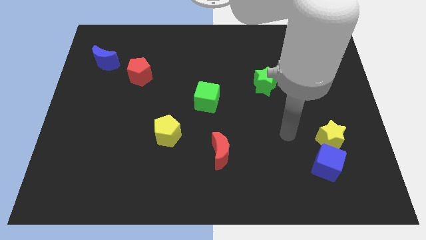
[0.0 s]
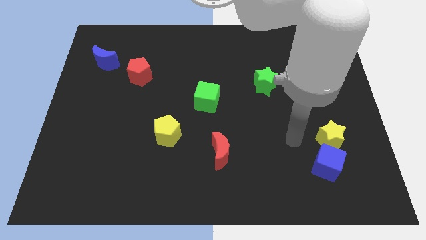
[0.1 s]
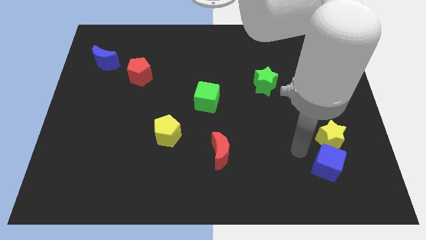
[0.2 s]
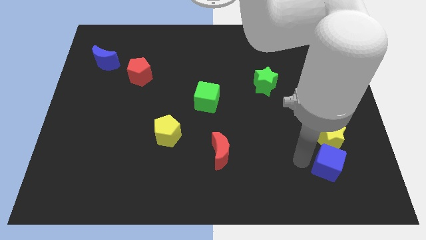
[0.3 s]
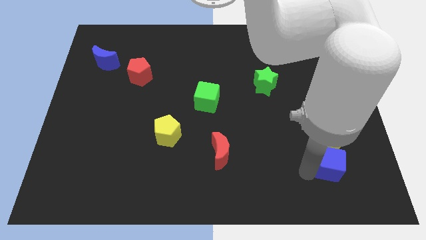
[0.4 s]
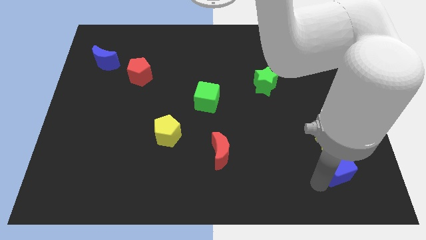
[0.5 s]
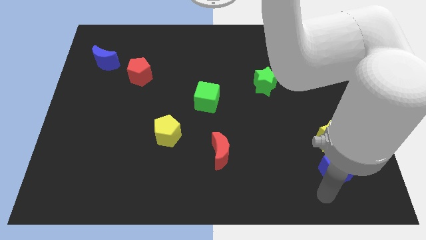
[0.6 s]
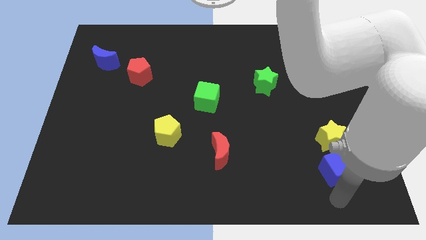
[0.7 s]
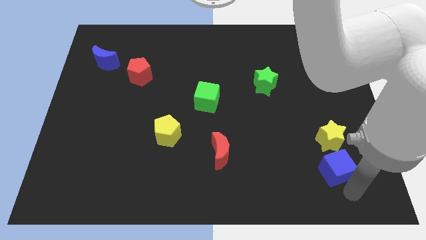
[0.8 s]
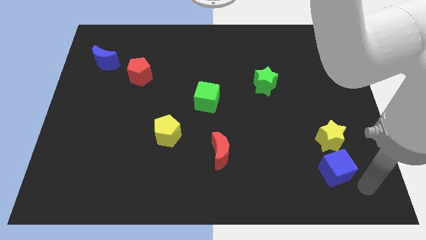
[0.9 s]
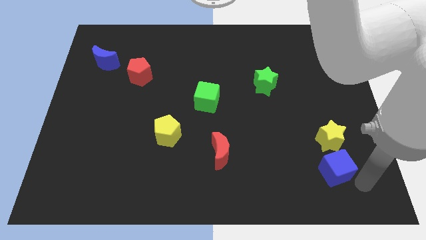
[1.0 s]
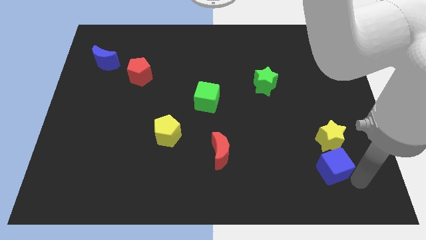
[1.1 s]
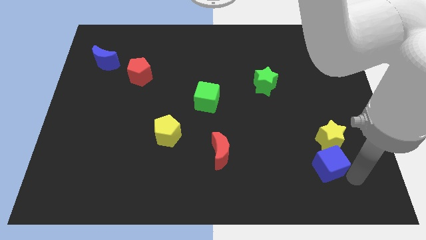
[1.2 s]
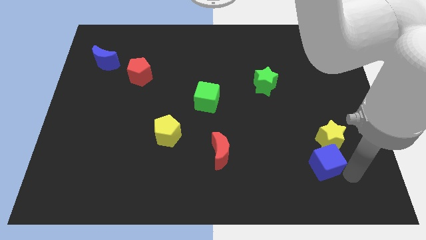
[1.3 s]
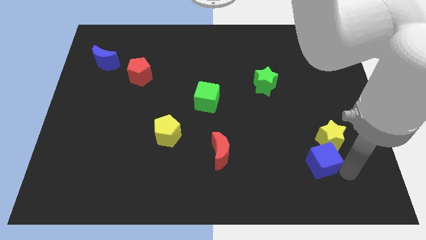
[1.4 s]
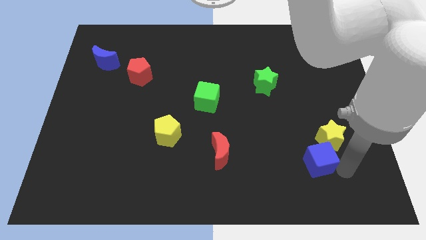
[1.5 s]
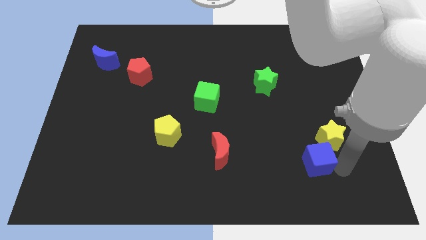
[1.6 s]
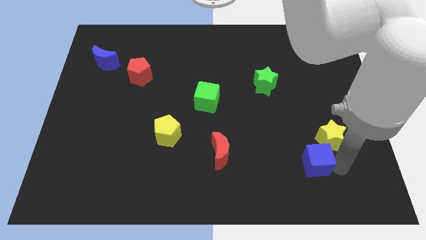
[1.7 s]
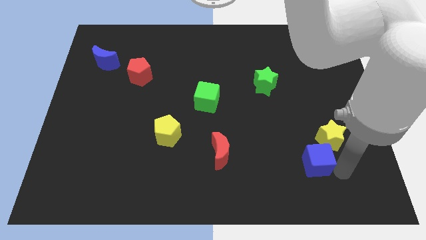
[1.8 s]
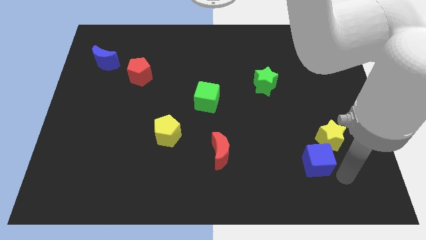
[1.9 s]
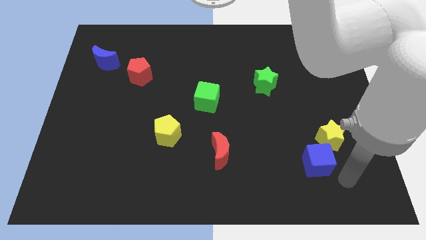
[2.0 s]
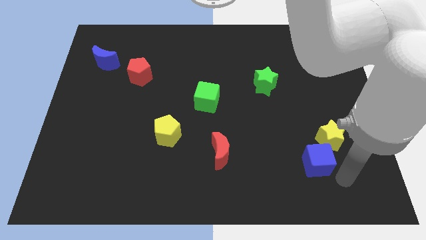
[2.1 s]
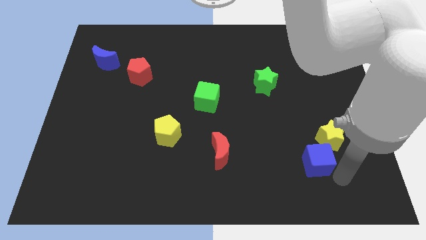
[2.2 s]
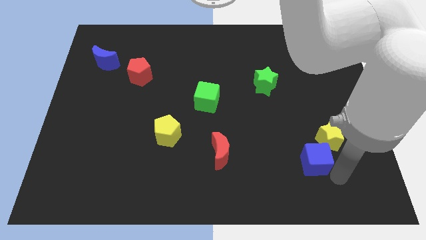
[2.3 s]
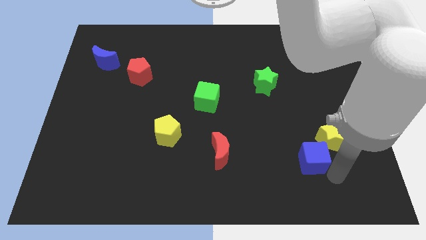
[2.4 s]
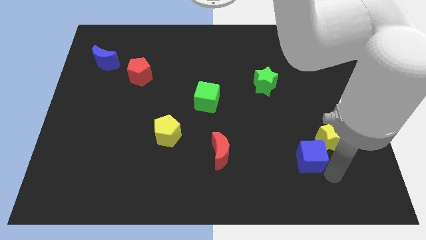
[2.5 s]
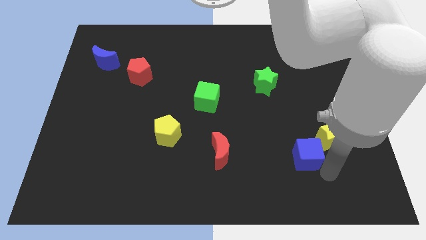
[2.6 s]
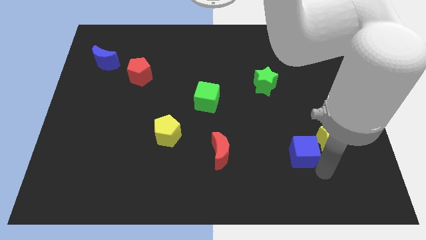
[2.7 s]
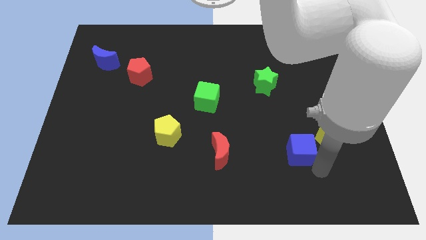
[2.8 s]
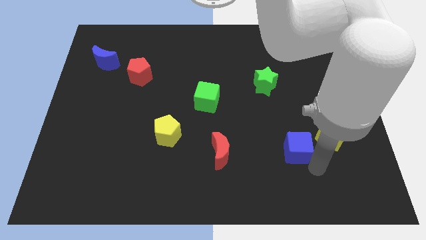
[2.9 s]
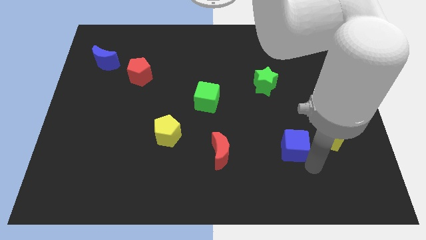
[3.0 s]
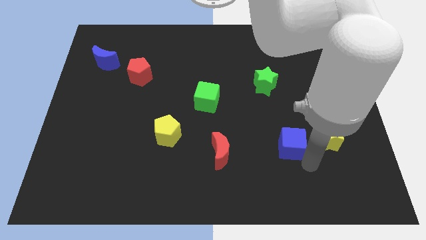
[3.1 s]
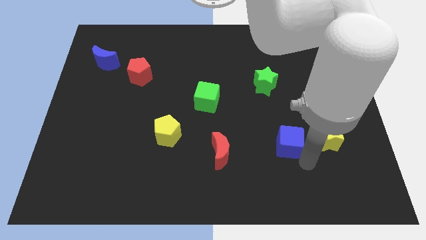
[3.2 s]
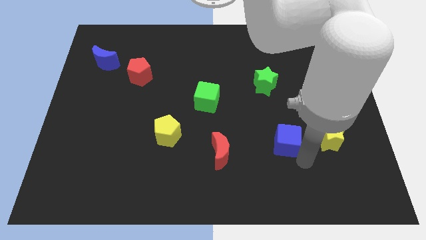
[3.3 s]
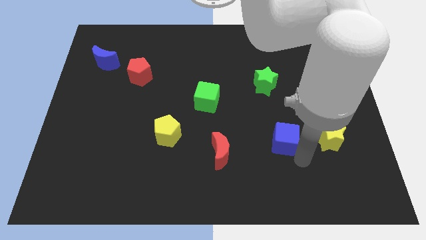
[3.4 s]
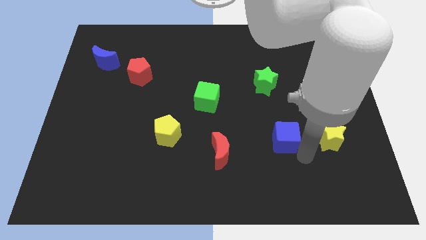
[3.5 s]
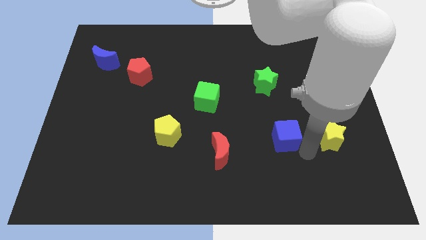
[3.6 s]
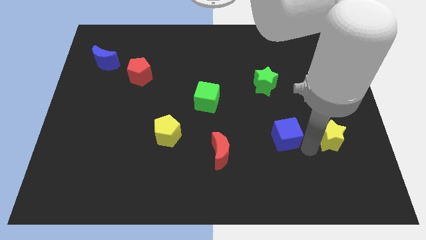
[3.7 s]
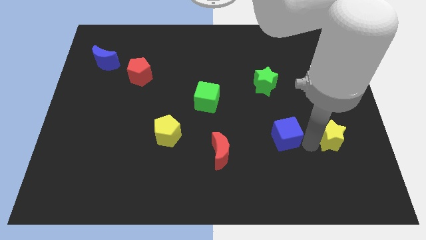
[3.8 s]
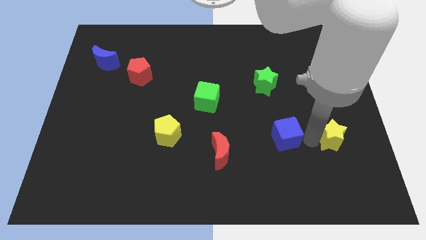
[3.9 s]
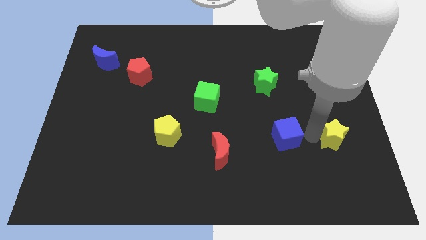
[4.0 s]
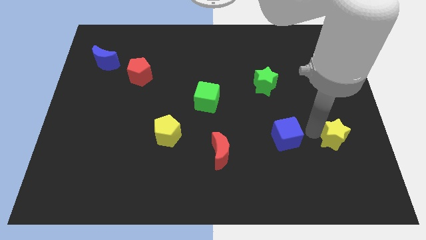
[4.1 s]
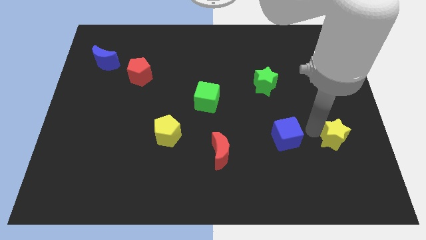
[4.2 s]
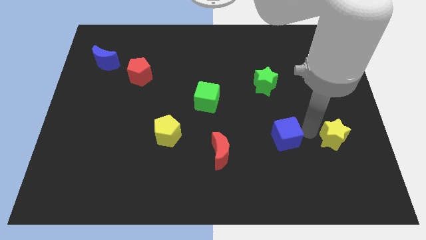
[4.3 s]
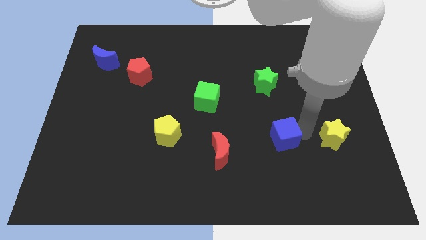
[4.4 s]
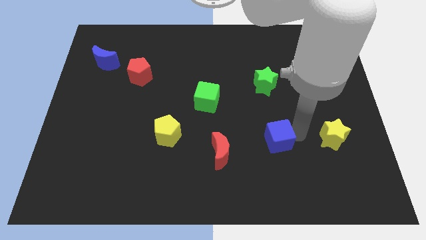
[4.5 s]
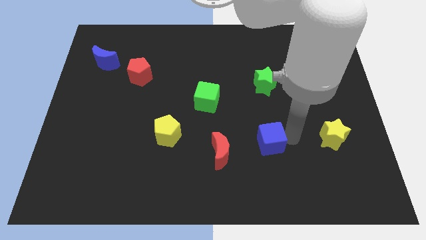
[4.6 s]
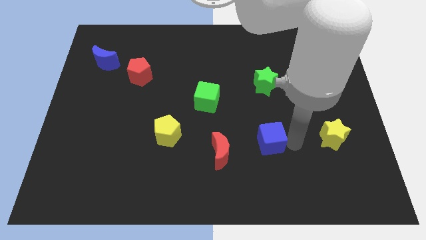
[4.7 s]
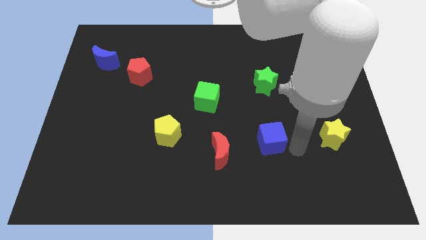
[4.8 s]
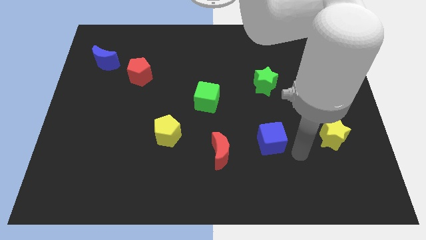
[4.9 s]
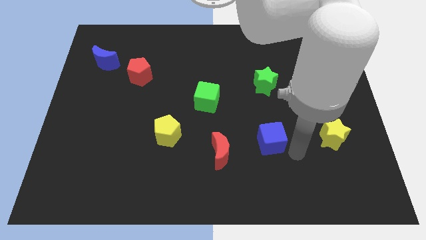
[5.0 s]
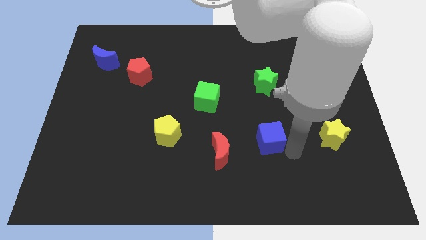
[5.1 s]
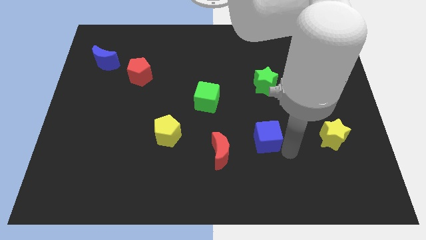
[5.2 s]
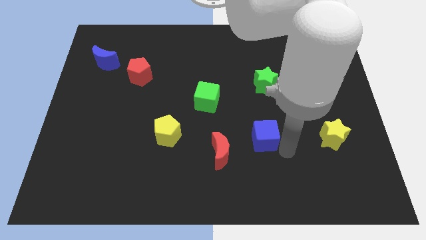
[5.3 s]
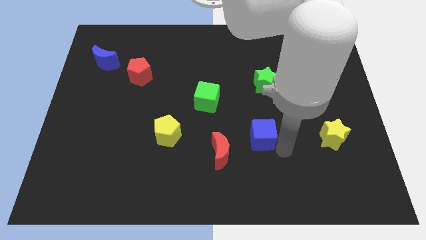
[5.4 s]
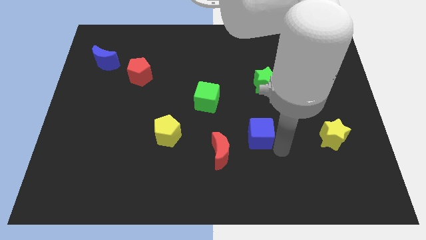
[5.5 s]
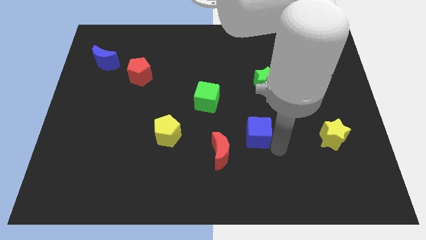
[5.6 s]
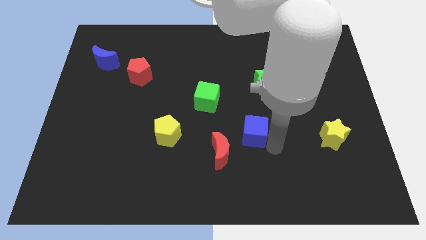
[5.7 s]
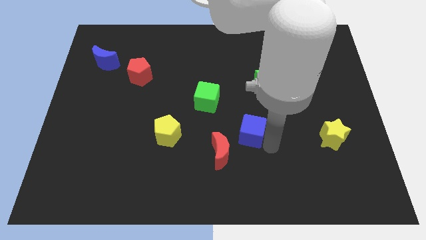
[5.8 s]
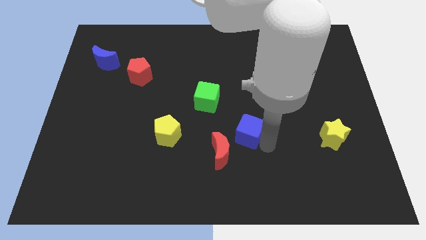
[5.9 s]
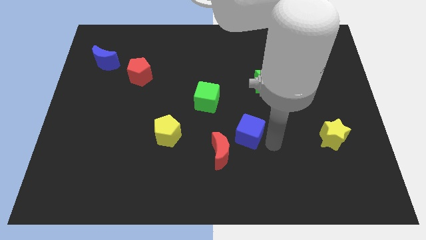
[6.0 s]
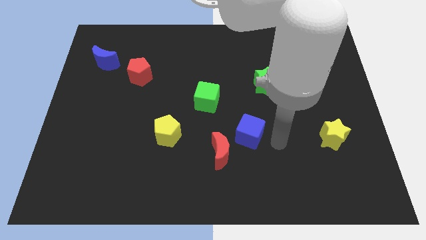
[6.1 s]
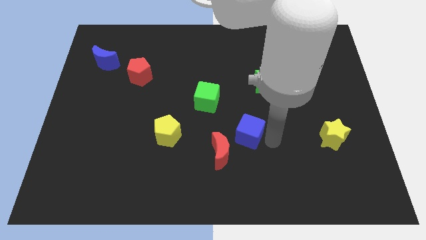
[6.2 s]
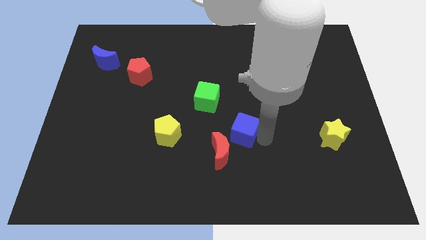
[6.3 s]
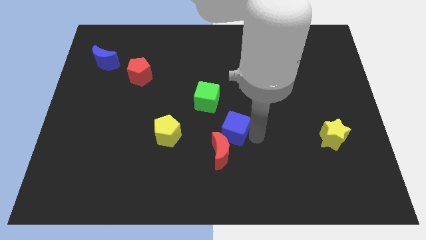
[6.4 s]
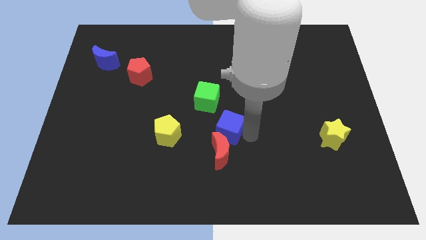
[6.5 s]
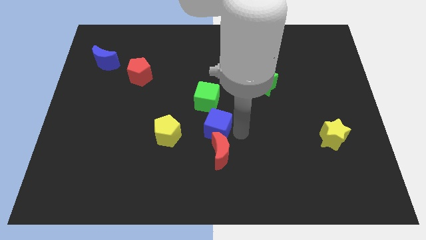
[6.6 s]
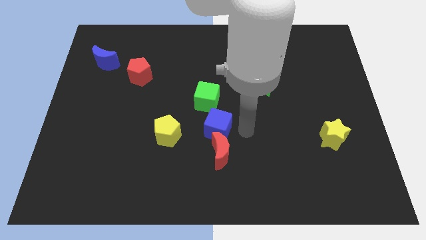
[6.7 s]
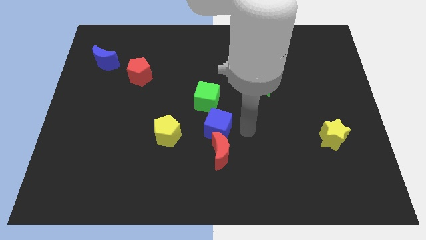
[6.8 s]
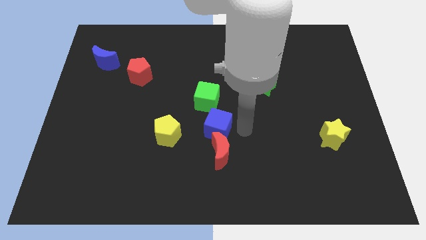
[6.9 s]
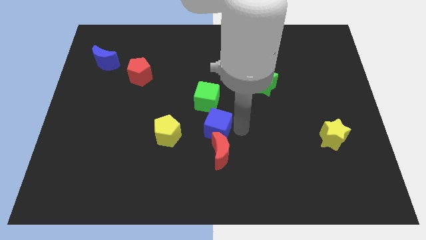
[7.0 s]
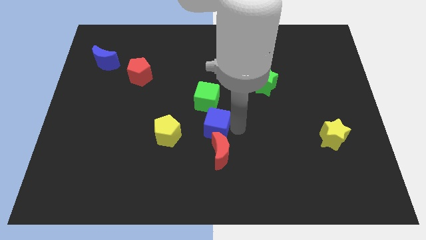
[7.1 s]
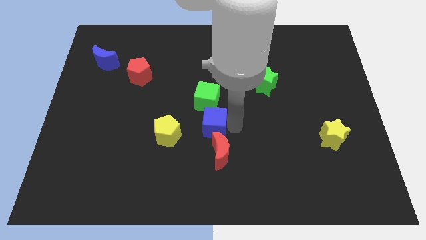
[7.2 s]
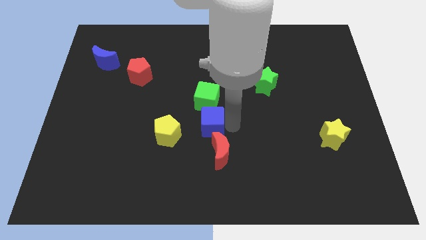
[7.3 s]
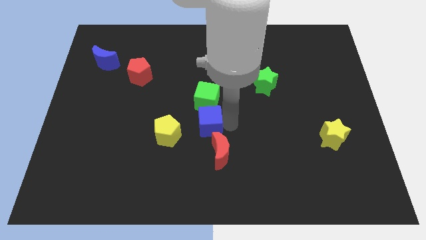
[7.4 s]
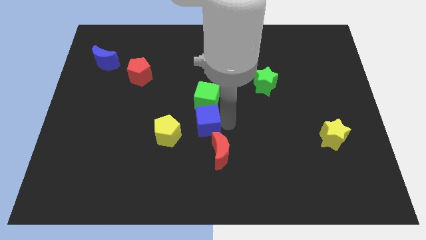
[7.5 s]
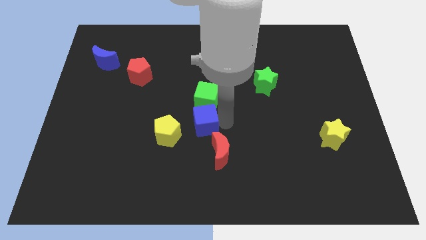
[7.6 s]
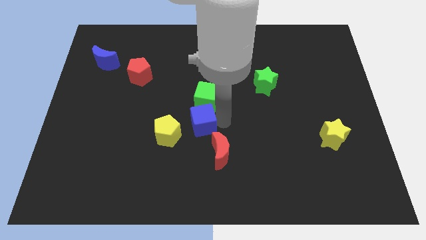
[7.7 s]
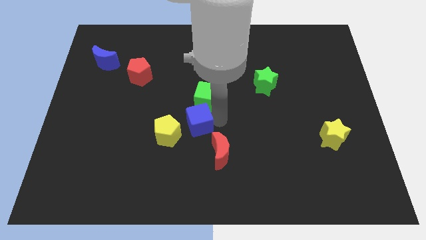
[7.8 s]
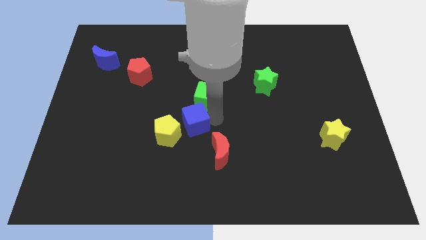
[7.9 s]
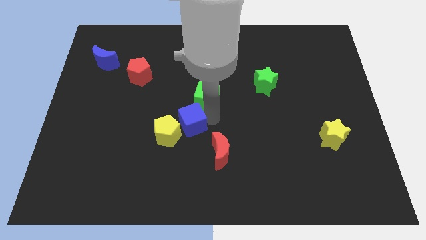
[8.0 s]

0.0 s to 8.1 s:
push the blue cube towards the yellow pentagon

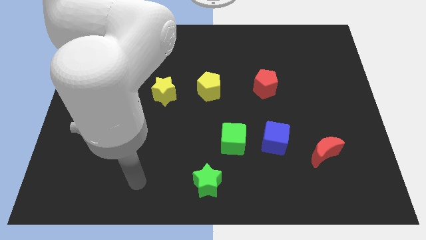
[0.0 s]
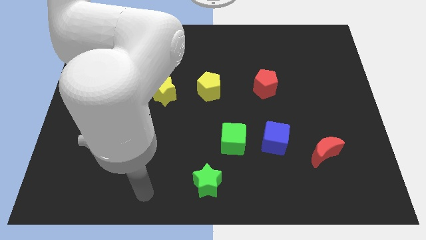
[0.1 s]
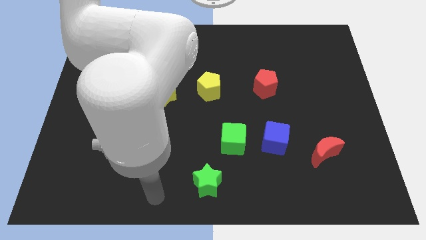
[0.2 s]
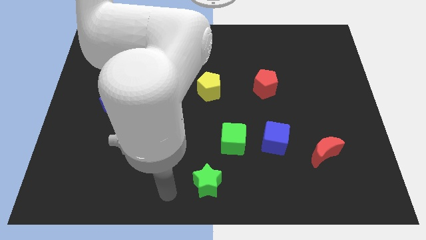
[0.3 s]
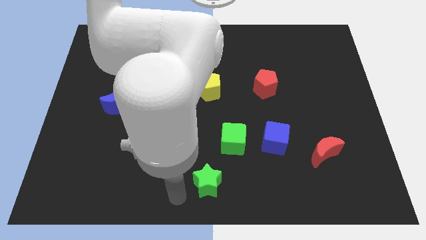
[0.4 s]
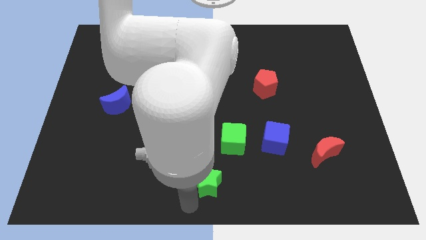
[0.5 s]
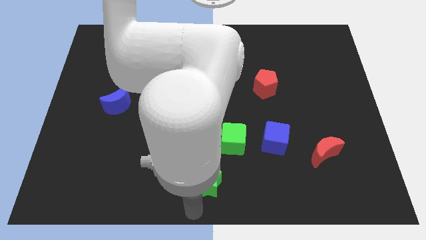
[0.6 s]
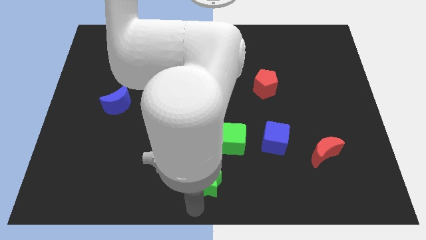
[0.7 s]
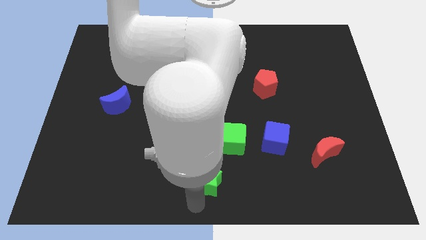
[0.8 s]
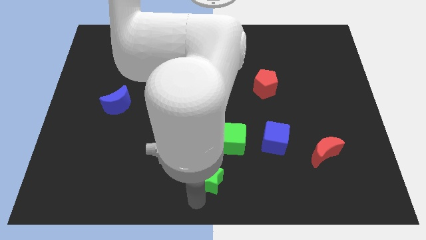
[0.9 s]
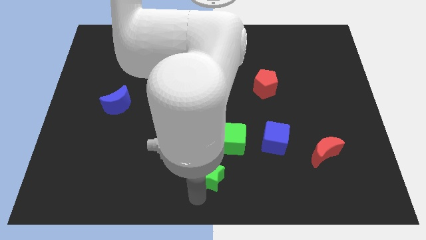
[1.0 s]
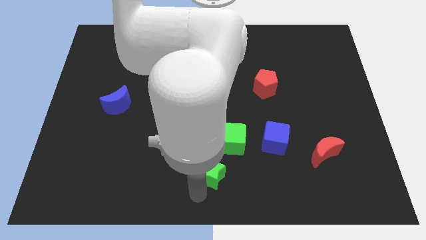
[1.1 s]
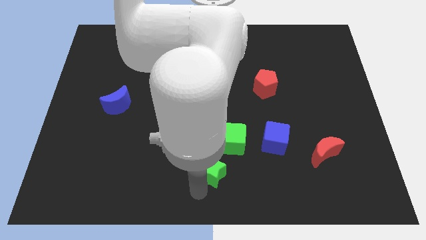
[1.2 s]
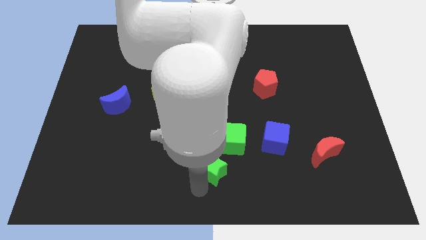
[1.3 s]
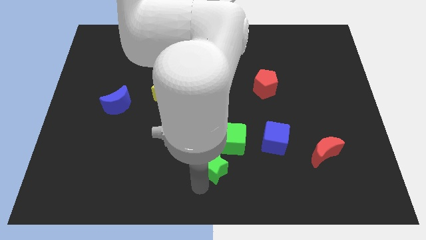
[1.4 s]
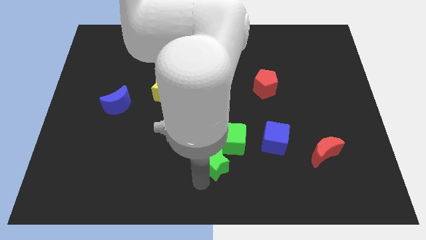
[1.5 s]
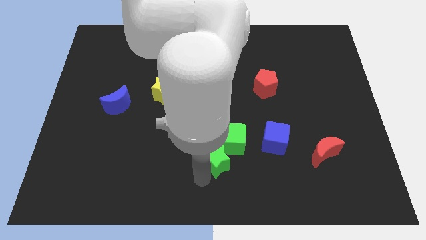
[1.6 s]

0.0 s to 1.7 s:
move the green star to the green cube
